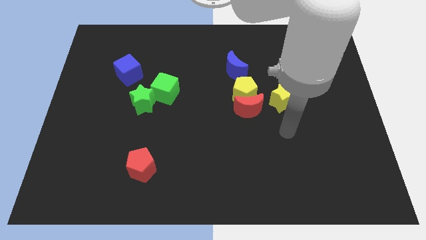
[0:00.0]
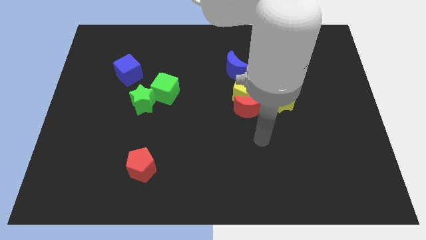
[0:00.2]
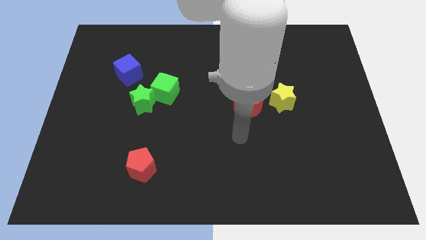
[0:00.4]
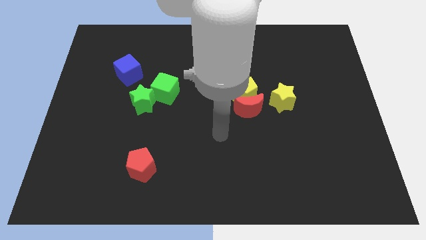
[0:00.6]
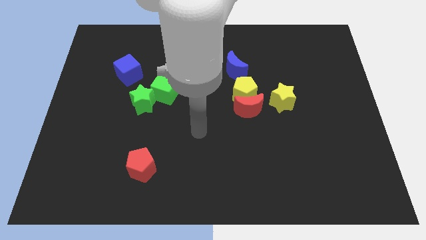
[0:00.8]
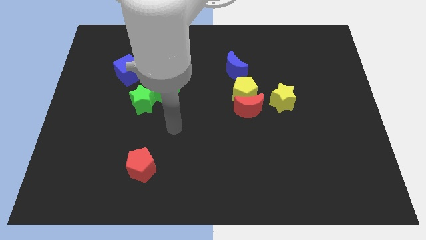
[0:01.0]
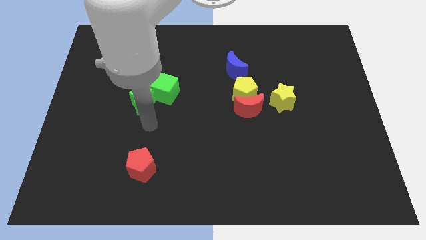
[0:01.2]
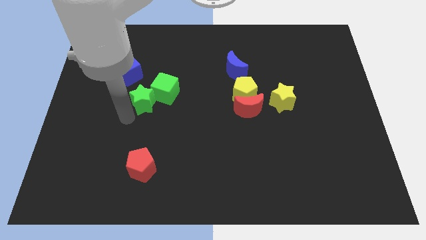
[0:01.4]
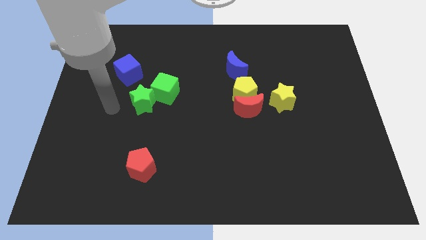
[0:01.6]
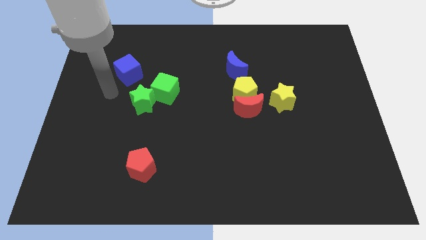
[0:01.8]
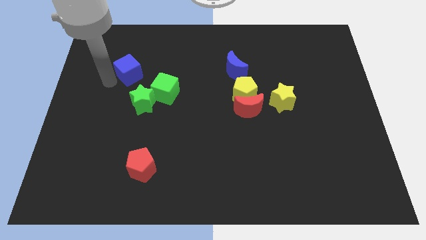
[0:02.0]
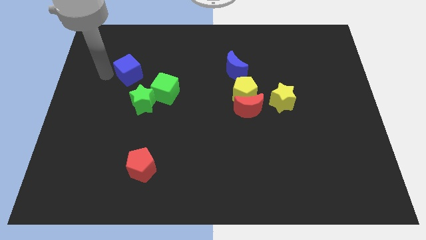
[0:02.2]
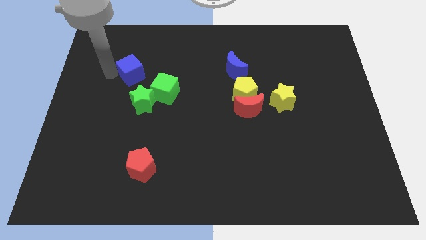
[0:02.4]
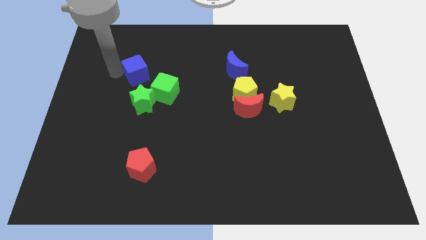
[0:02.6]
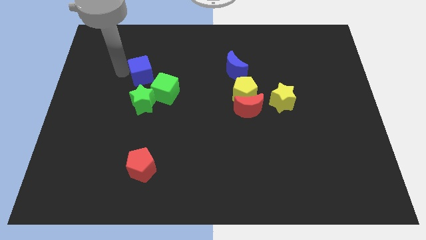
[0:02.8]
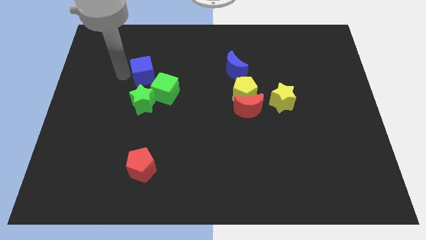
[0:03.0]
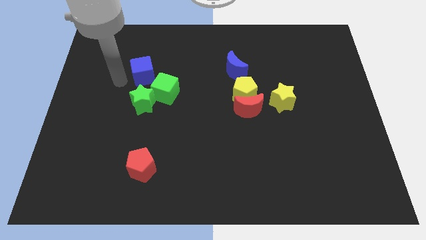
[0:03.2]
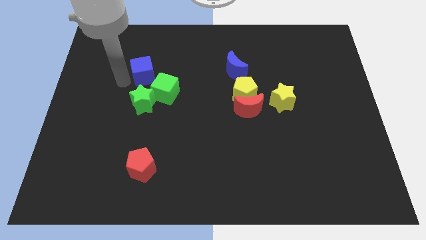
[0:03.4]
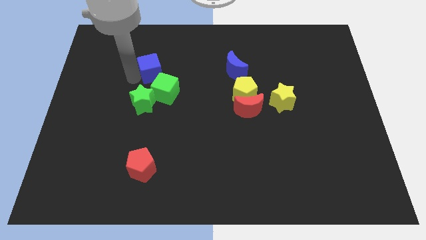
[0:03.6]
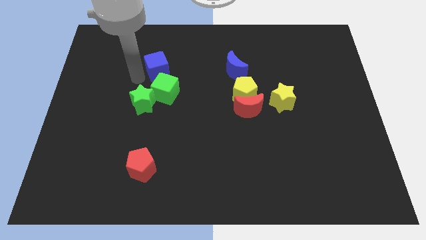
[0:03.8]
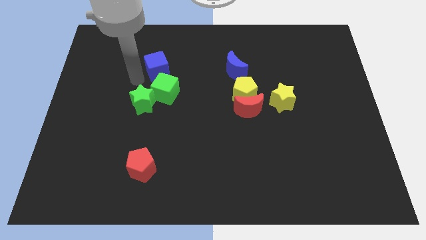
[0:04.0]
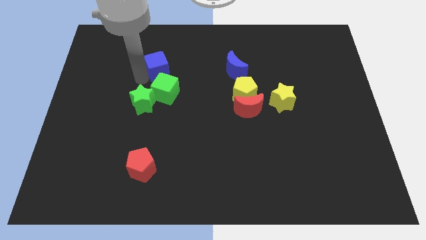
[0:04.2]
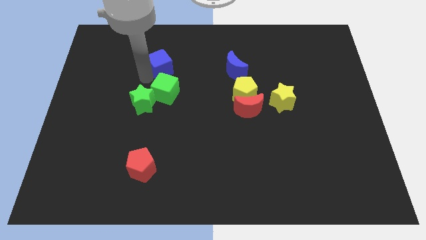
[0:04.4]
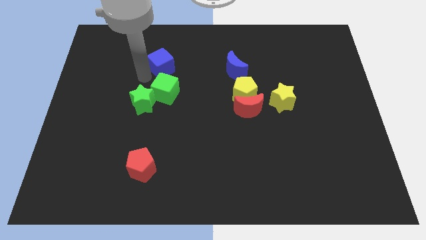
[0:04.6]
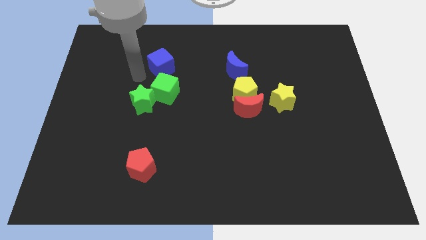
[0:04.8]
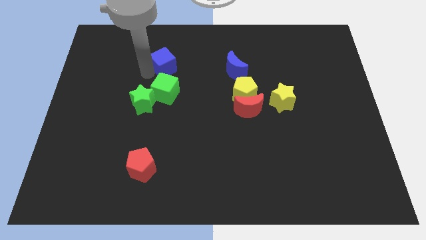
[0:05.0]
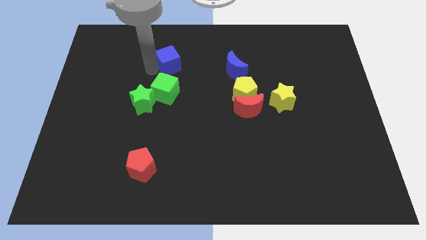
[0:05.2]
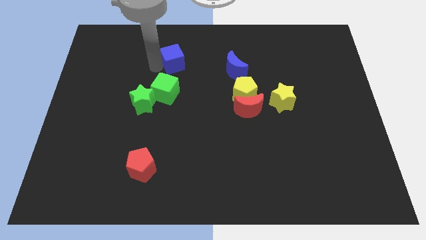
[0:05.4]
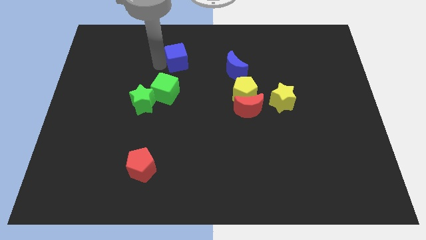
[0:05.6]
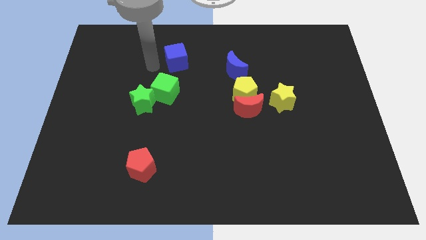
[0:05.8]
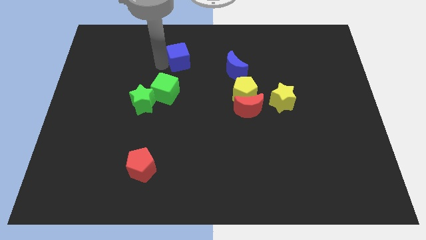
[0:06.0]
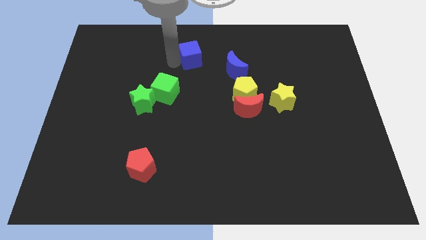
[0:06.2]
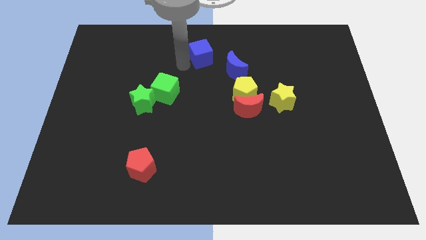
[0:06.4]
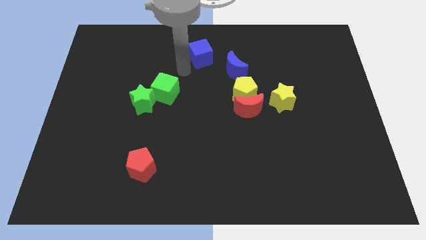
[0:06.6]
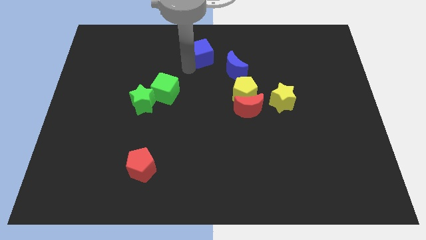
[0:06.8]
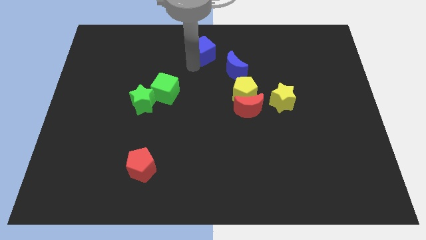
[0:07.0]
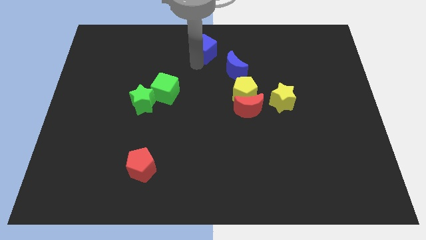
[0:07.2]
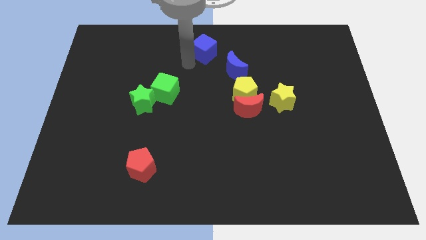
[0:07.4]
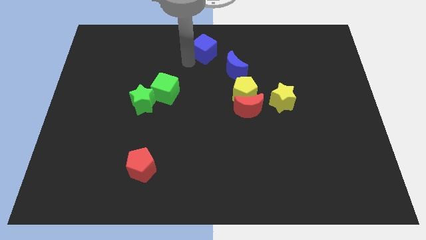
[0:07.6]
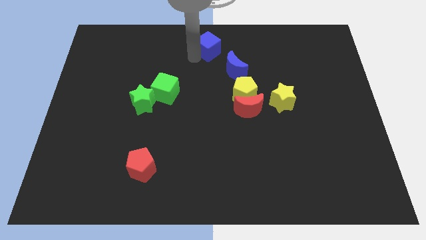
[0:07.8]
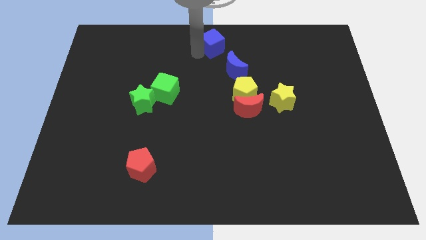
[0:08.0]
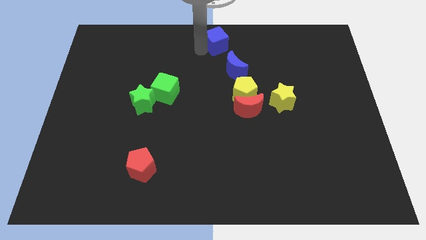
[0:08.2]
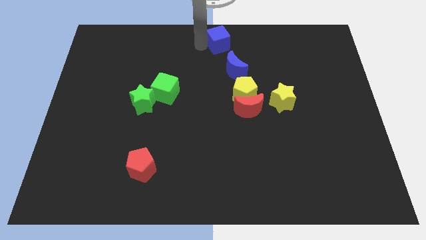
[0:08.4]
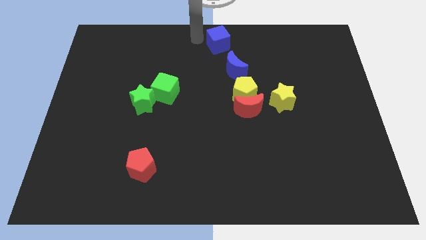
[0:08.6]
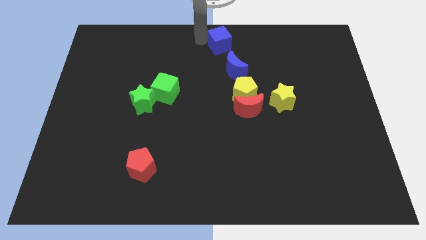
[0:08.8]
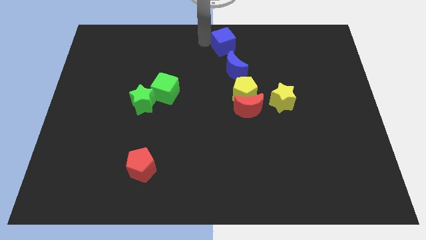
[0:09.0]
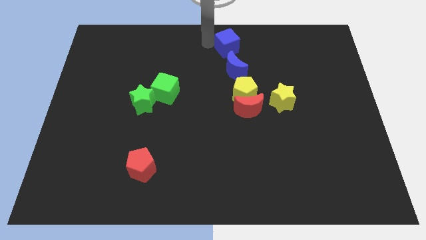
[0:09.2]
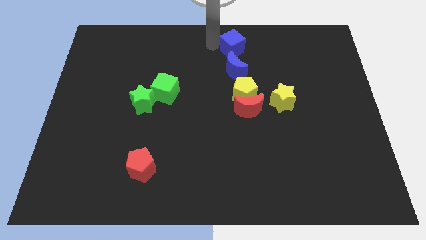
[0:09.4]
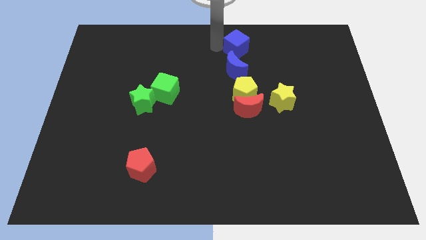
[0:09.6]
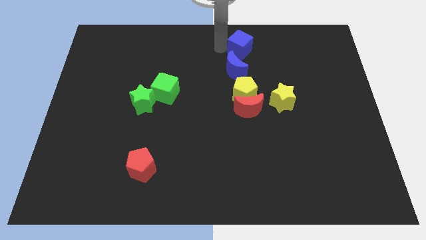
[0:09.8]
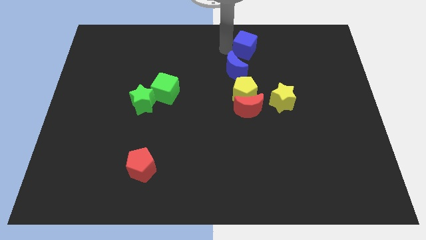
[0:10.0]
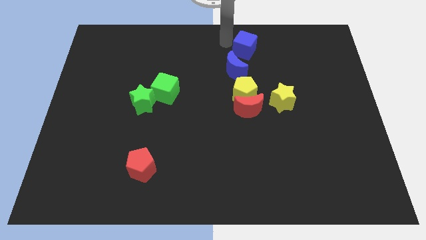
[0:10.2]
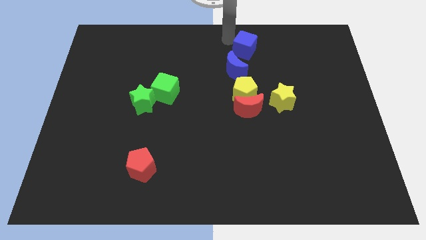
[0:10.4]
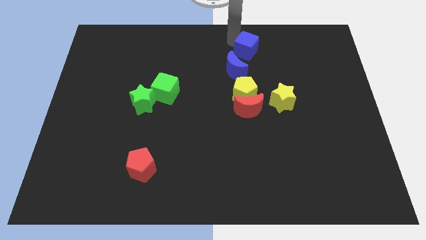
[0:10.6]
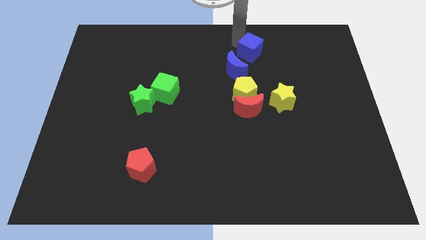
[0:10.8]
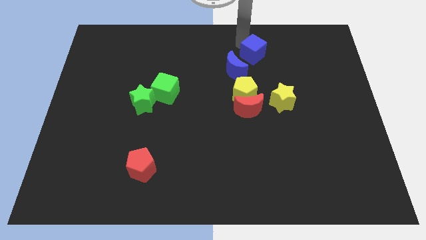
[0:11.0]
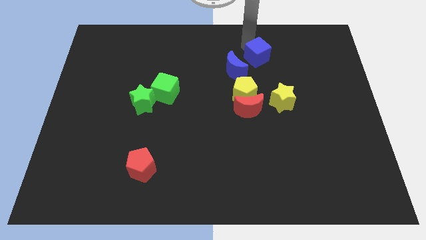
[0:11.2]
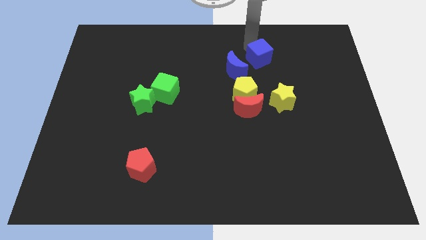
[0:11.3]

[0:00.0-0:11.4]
move the blue cube to the right side of the blue moon

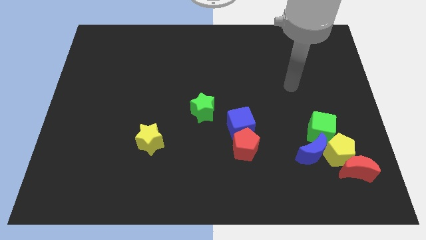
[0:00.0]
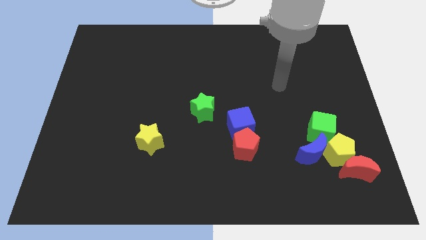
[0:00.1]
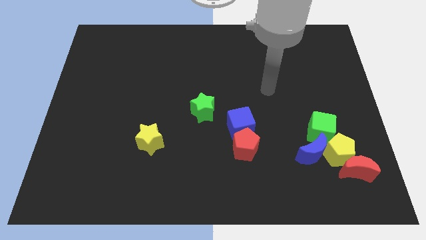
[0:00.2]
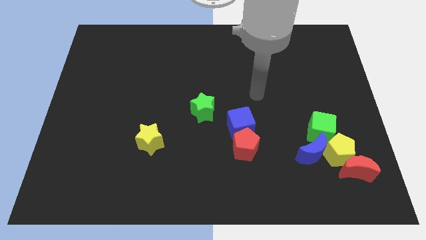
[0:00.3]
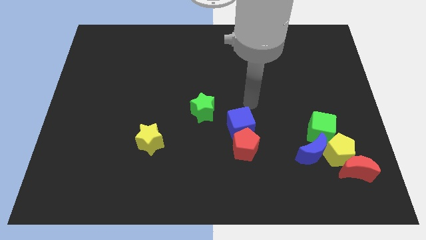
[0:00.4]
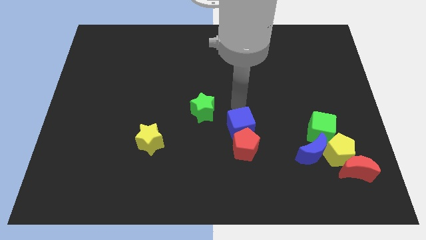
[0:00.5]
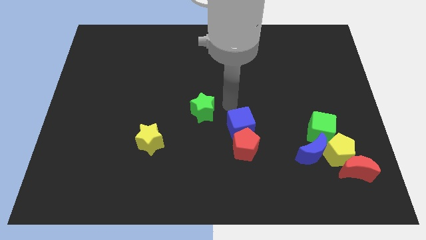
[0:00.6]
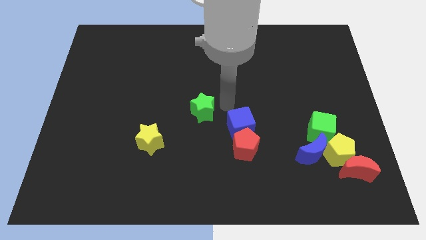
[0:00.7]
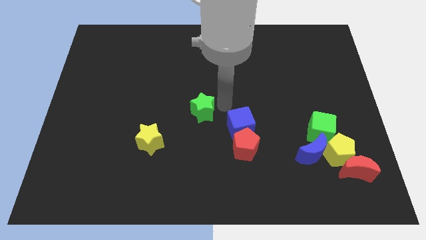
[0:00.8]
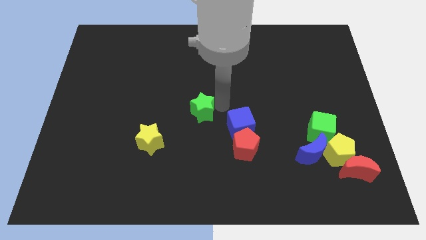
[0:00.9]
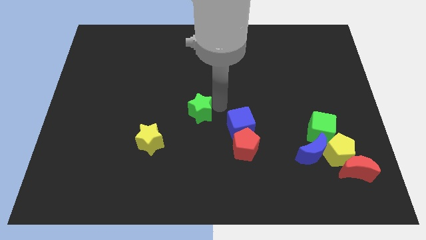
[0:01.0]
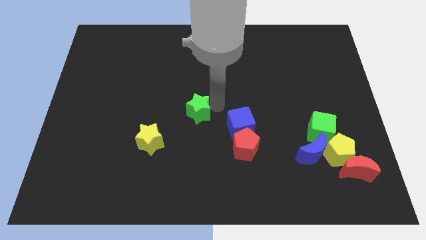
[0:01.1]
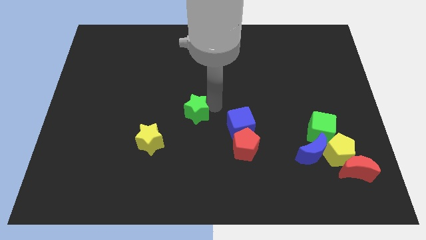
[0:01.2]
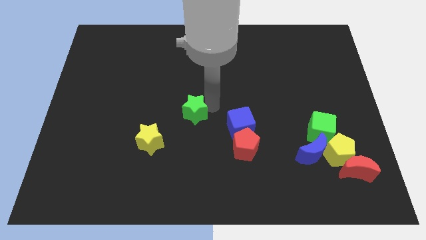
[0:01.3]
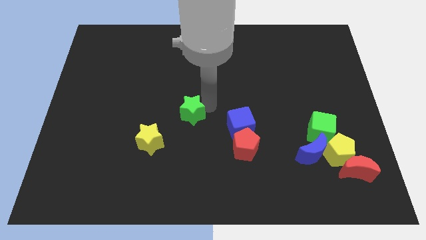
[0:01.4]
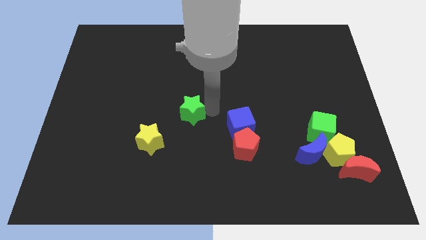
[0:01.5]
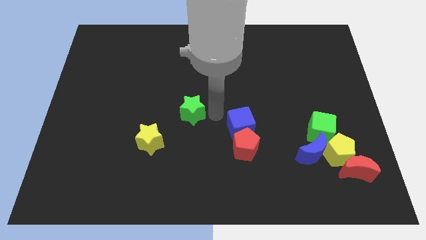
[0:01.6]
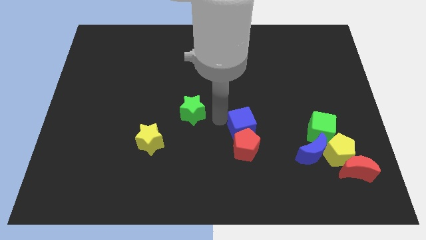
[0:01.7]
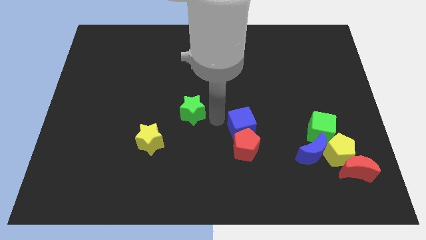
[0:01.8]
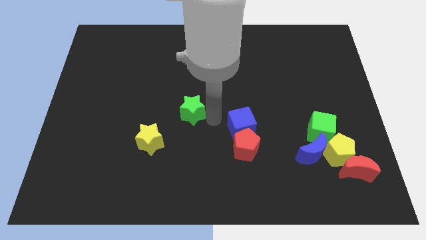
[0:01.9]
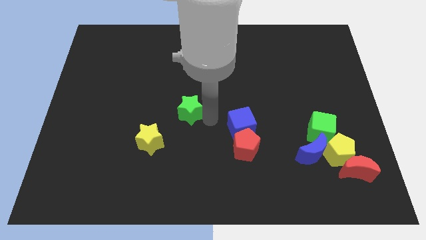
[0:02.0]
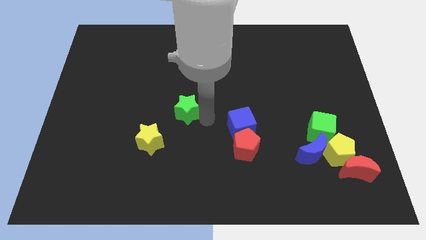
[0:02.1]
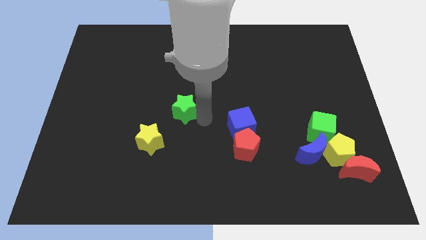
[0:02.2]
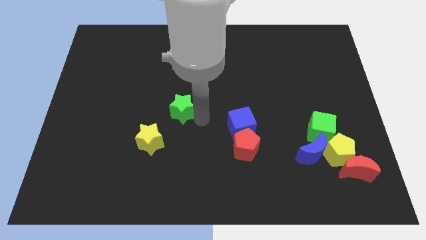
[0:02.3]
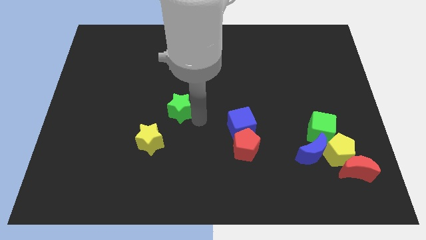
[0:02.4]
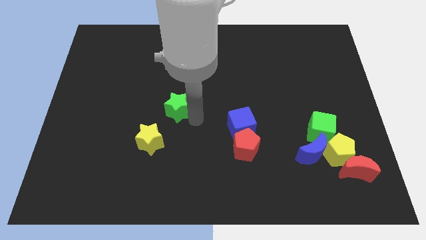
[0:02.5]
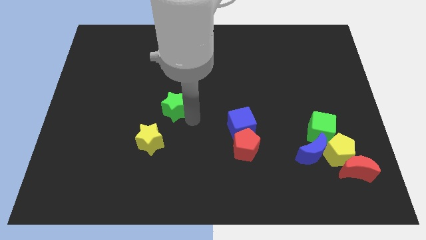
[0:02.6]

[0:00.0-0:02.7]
move the green star to the top of the yellow star
